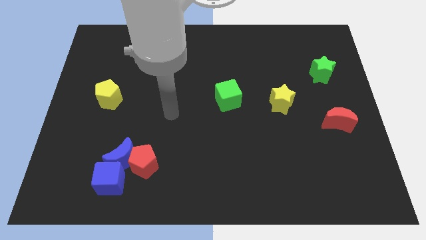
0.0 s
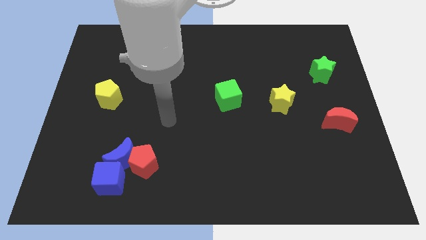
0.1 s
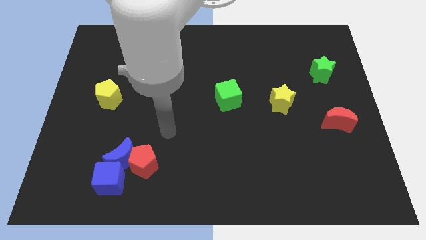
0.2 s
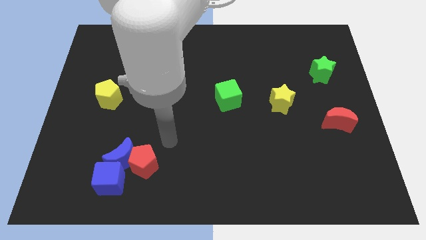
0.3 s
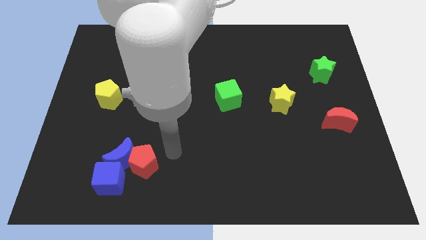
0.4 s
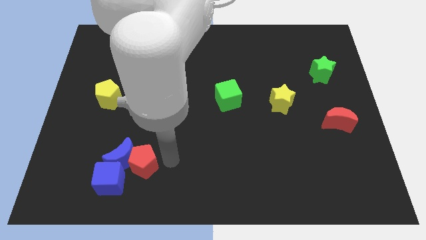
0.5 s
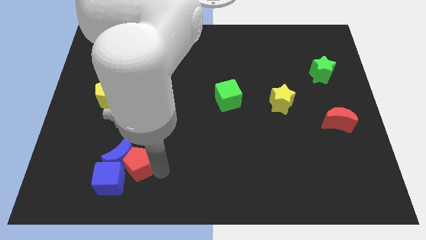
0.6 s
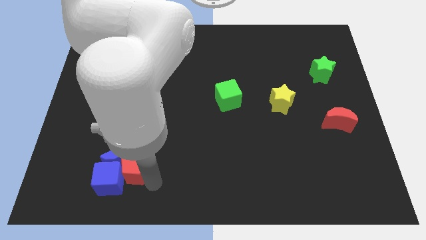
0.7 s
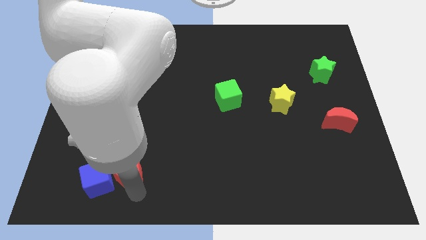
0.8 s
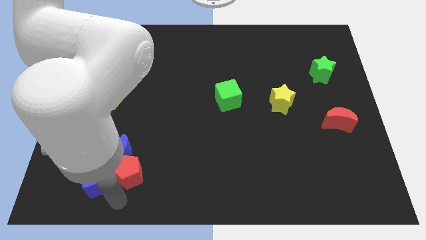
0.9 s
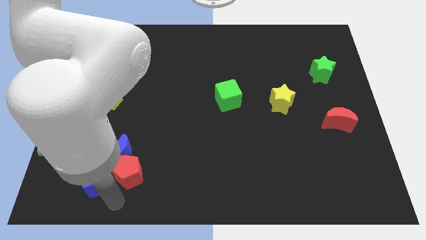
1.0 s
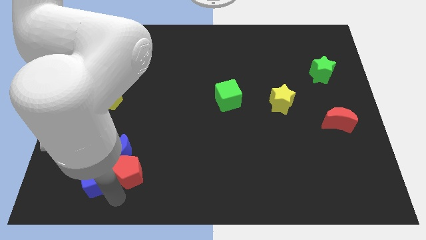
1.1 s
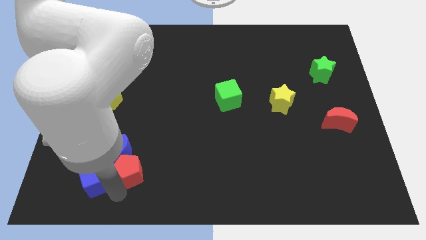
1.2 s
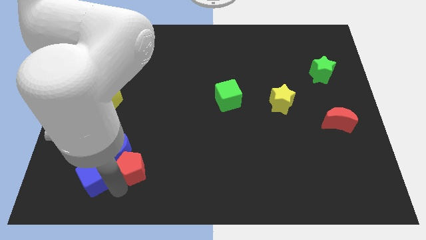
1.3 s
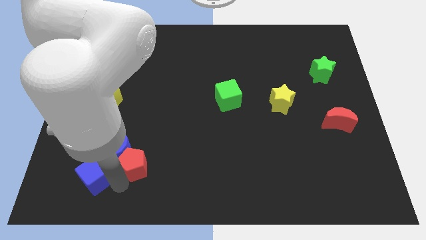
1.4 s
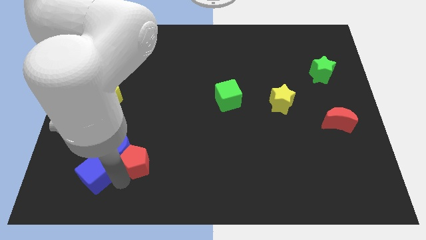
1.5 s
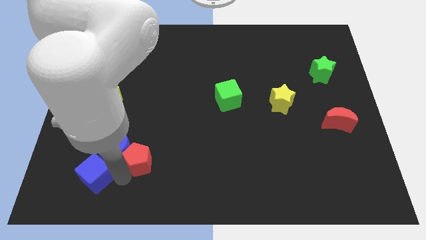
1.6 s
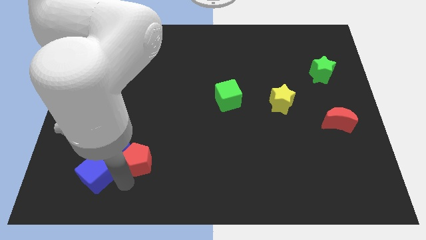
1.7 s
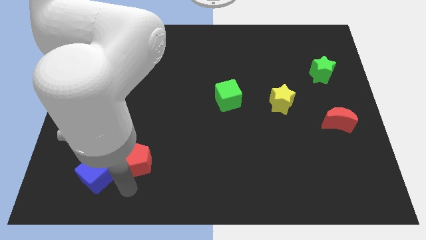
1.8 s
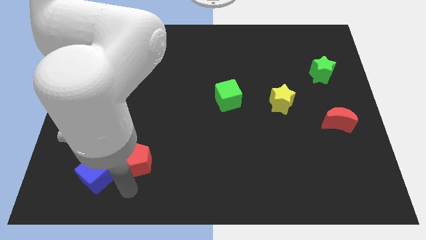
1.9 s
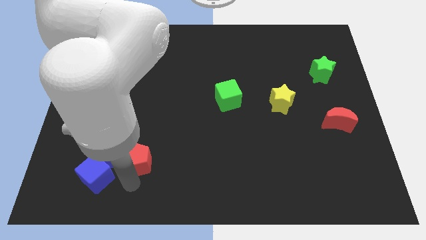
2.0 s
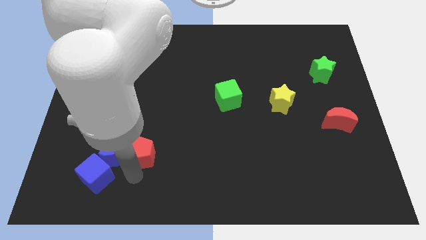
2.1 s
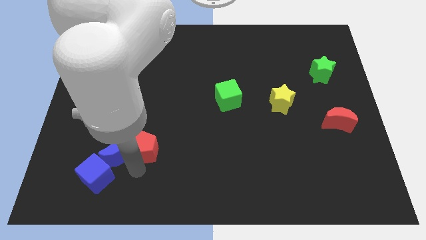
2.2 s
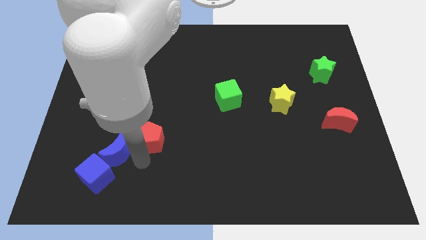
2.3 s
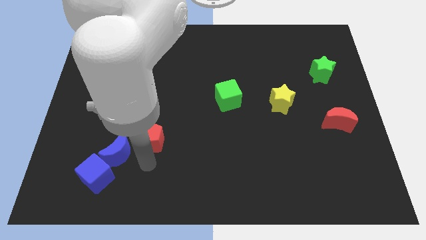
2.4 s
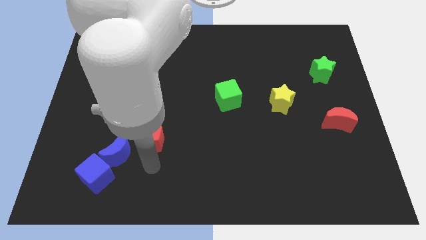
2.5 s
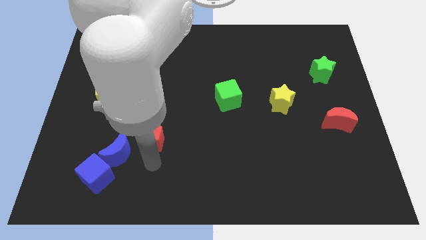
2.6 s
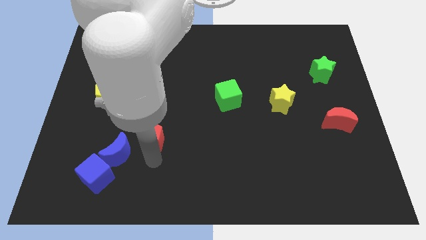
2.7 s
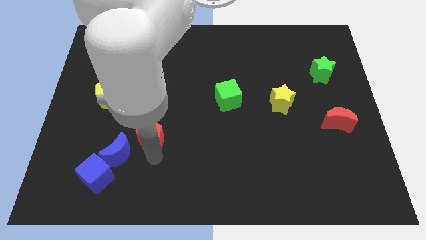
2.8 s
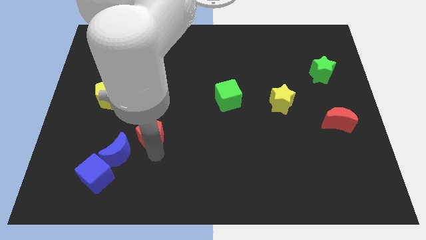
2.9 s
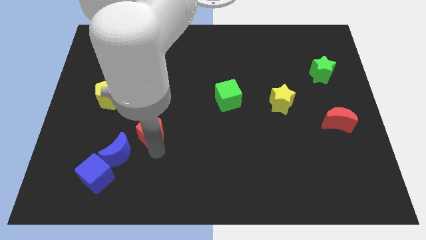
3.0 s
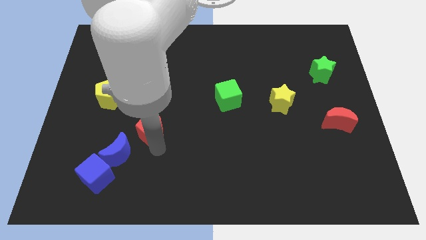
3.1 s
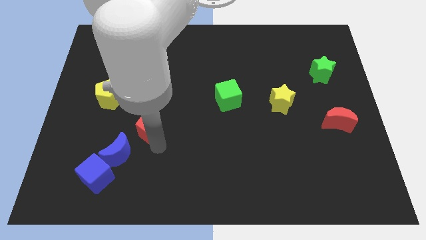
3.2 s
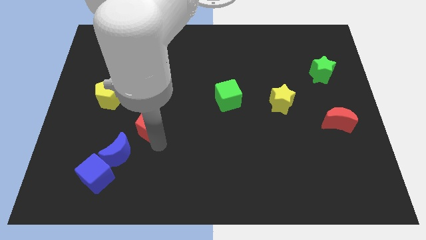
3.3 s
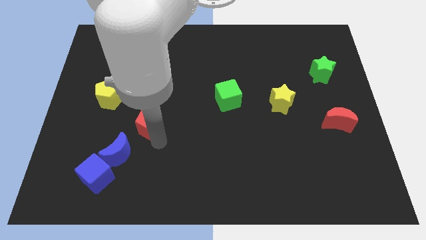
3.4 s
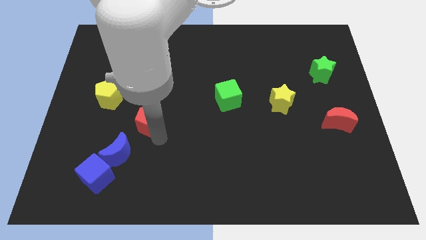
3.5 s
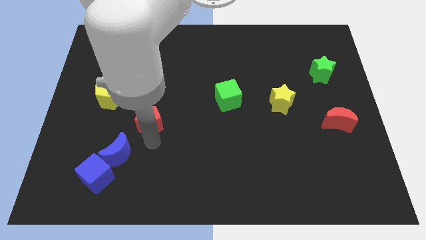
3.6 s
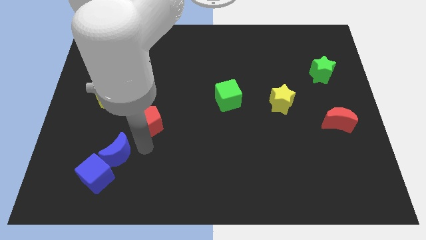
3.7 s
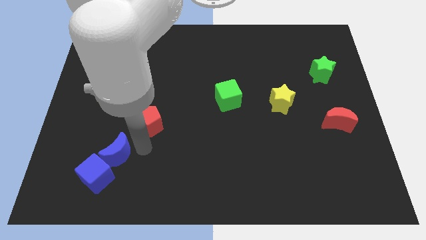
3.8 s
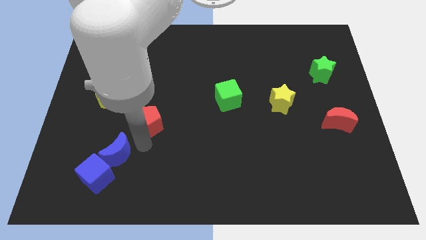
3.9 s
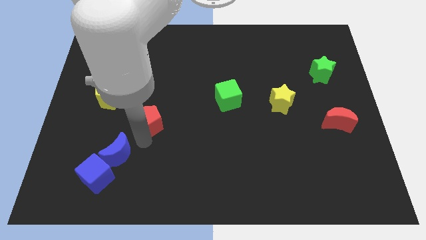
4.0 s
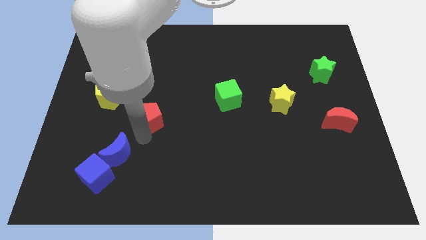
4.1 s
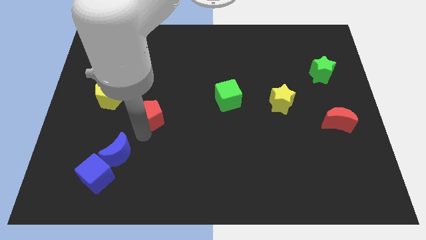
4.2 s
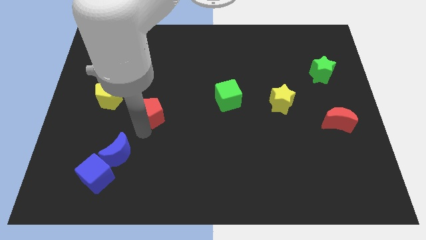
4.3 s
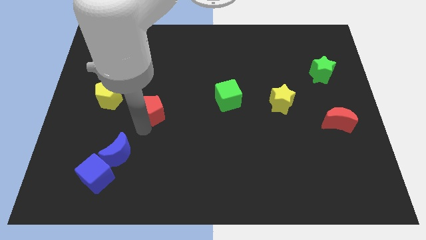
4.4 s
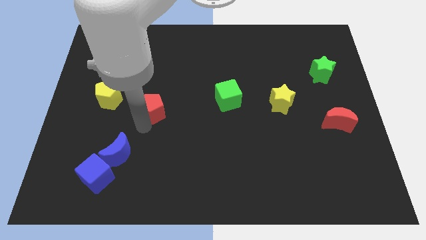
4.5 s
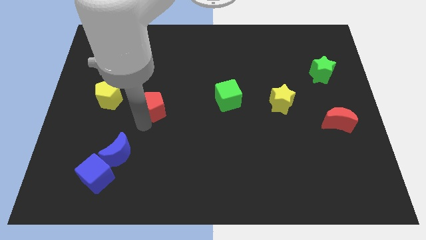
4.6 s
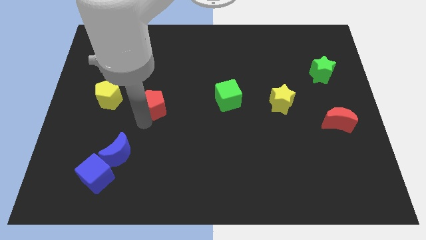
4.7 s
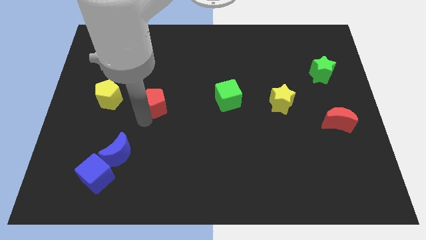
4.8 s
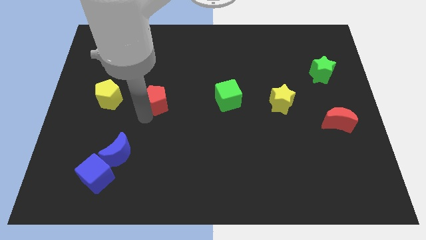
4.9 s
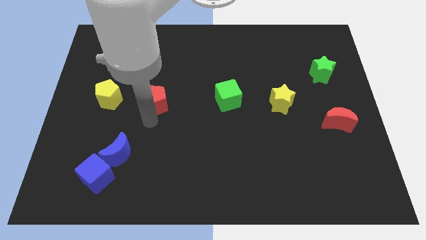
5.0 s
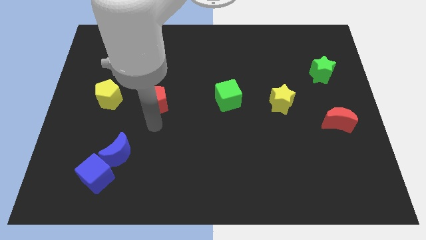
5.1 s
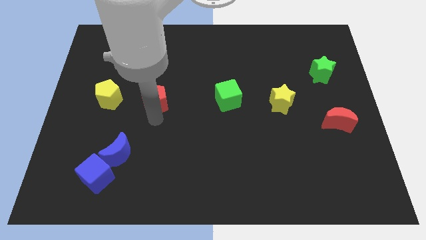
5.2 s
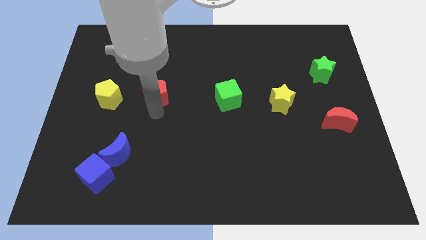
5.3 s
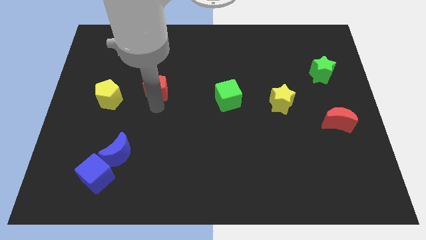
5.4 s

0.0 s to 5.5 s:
move the red pentagon up

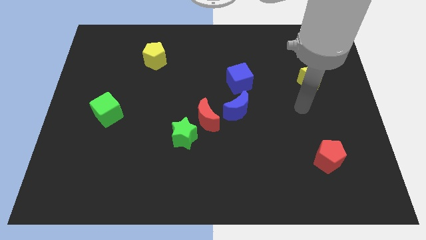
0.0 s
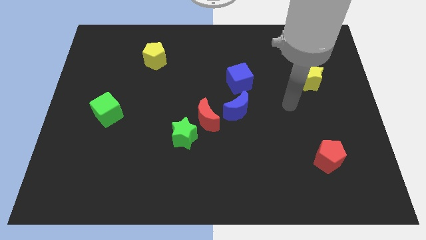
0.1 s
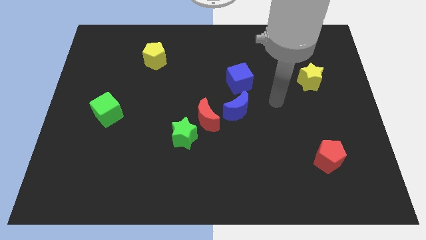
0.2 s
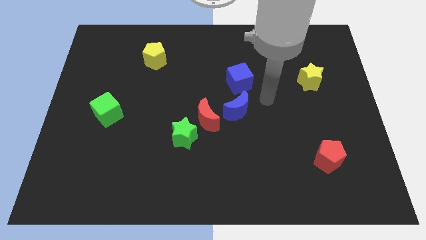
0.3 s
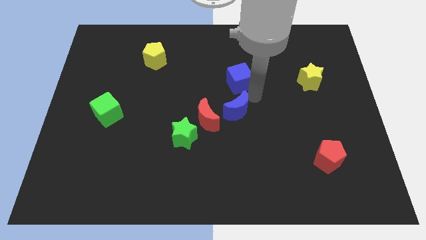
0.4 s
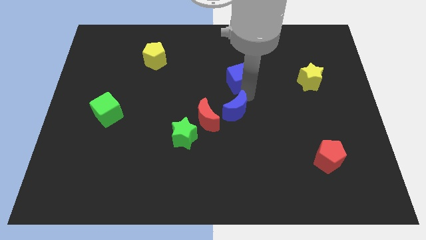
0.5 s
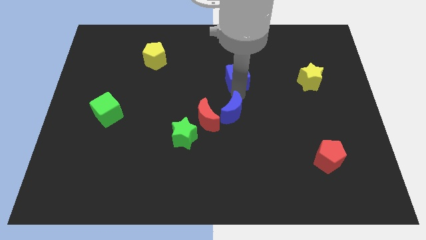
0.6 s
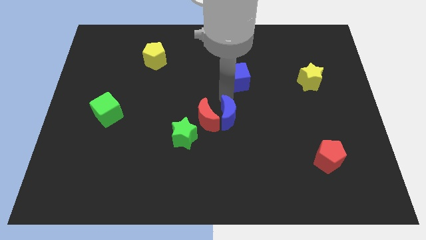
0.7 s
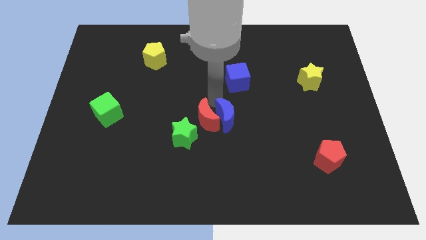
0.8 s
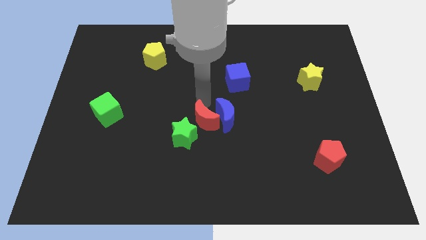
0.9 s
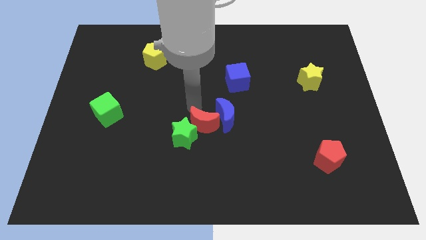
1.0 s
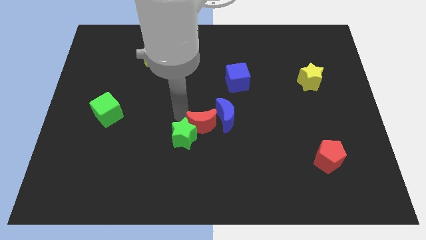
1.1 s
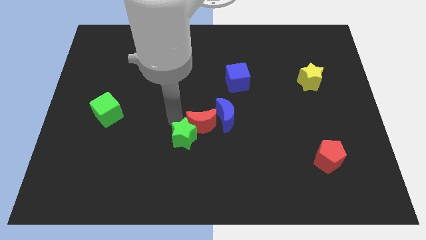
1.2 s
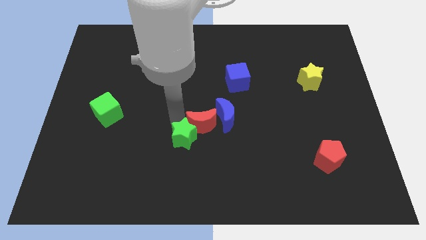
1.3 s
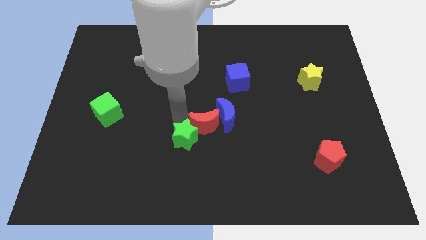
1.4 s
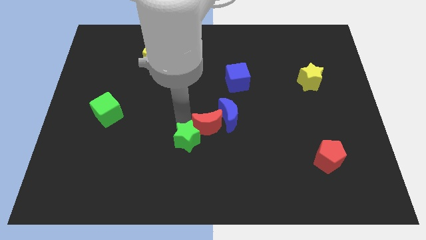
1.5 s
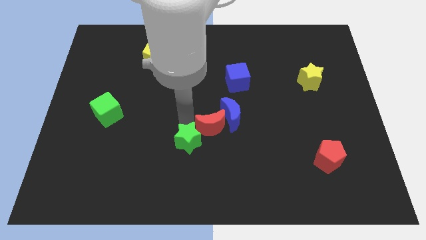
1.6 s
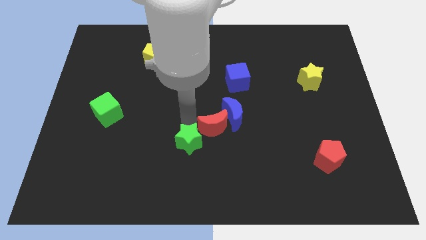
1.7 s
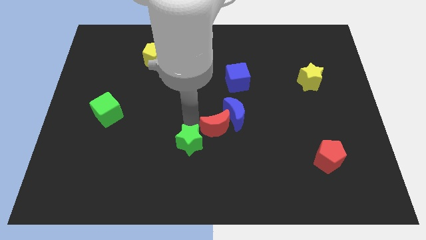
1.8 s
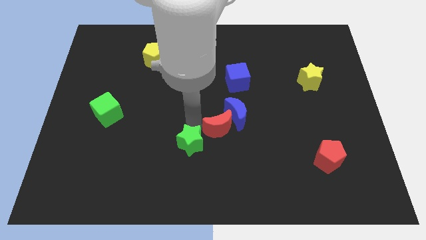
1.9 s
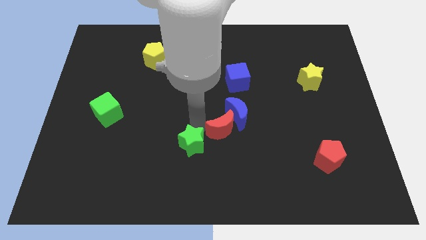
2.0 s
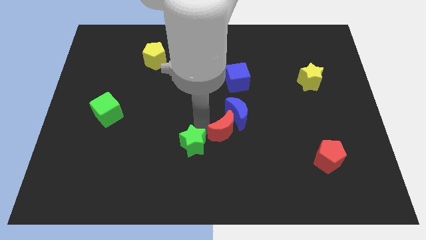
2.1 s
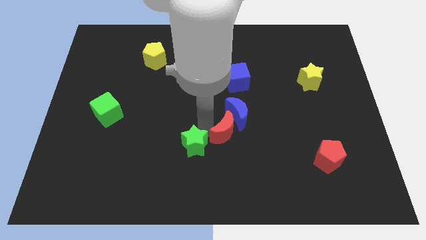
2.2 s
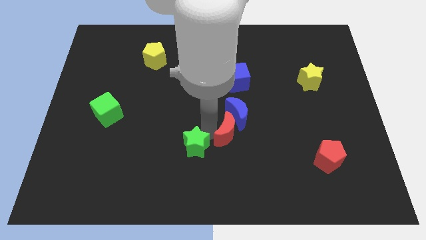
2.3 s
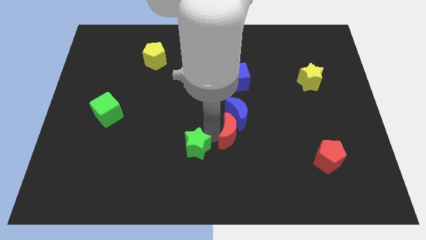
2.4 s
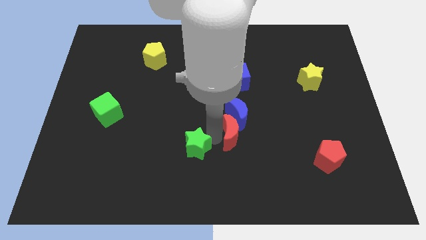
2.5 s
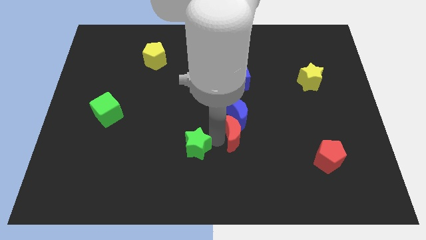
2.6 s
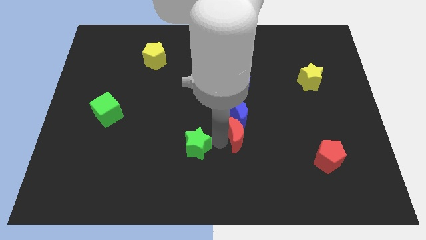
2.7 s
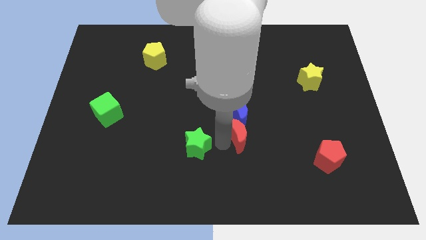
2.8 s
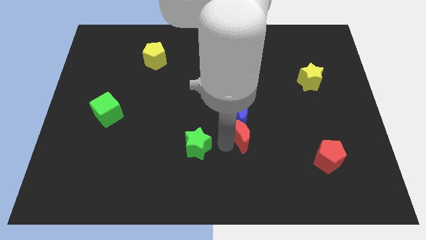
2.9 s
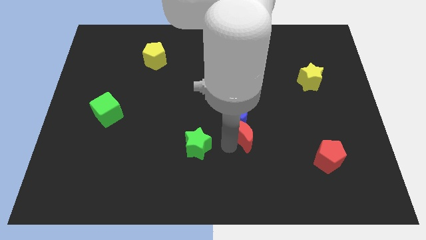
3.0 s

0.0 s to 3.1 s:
slightly slide the red moon right

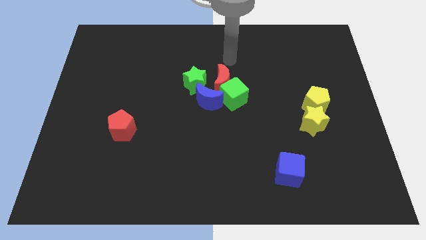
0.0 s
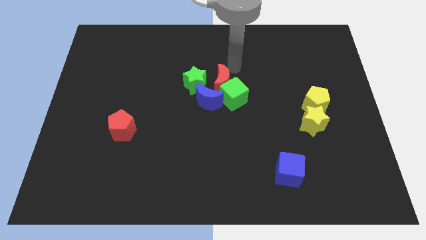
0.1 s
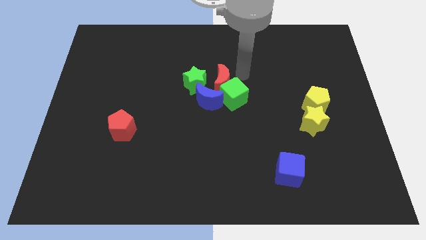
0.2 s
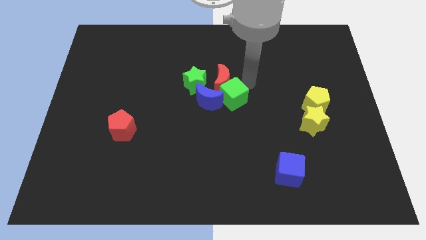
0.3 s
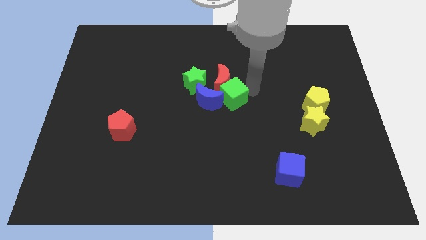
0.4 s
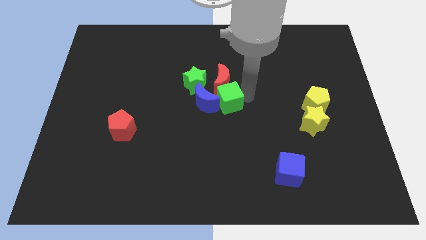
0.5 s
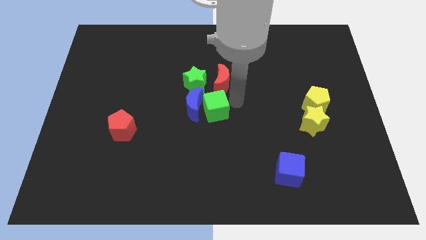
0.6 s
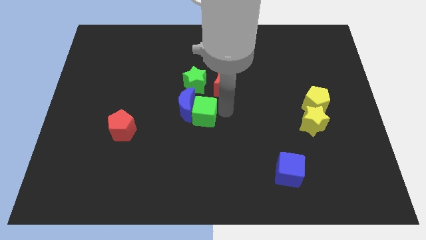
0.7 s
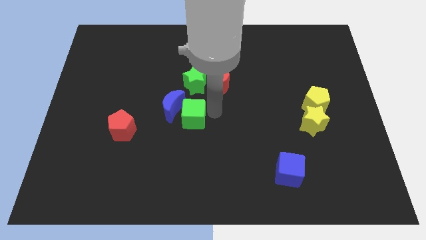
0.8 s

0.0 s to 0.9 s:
move the blue moon a little bit to the left
